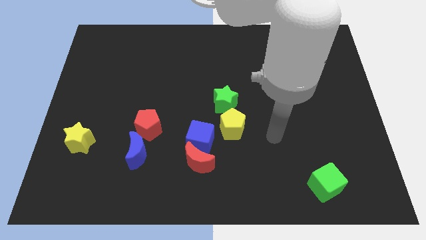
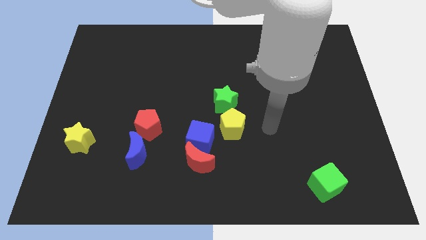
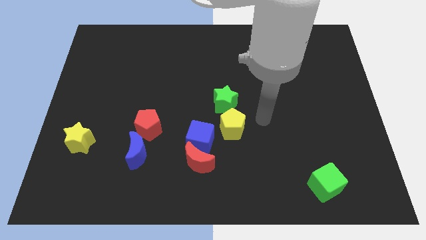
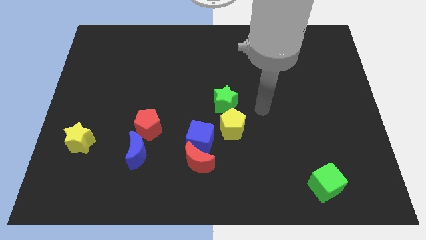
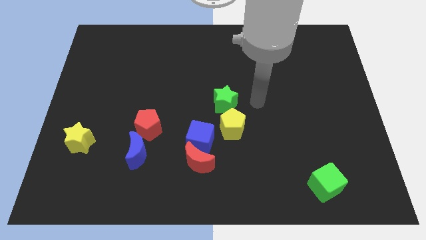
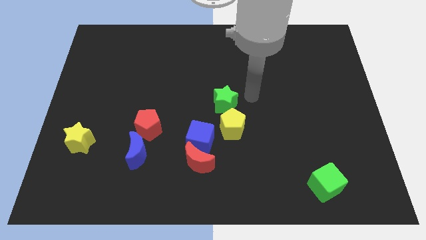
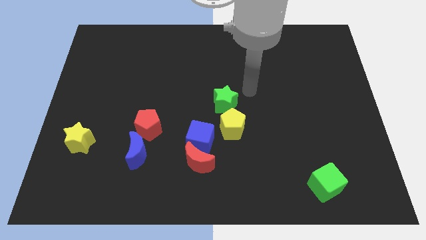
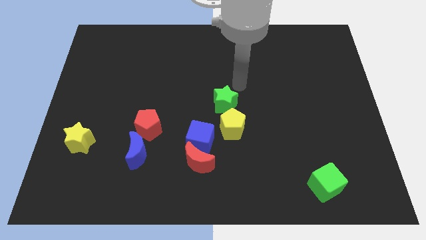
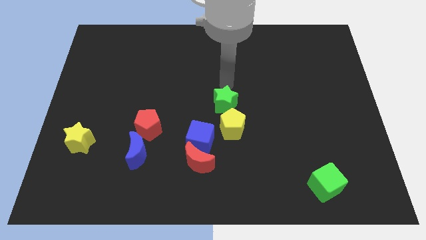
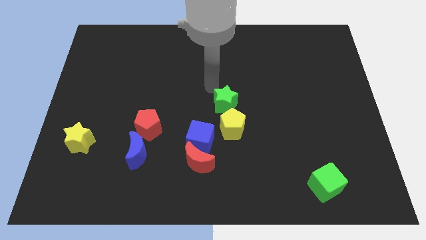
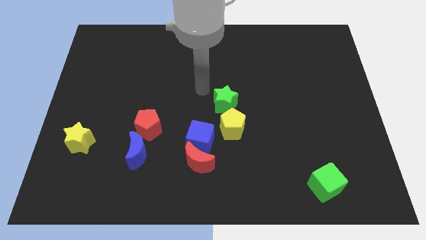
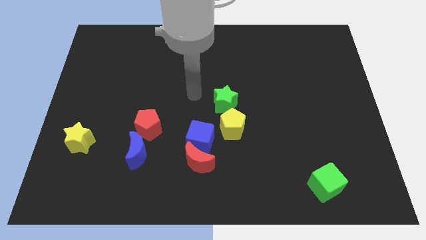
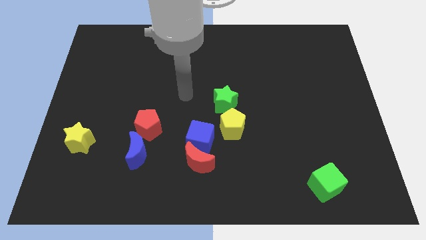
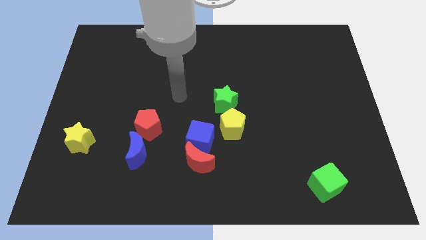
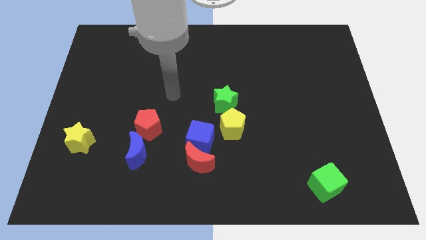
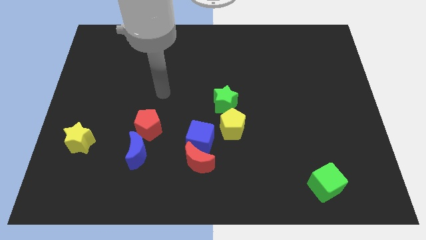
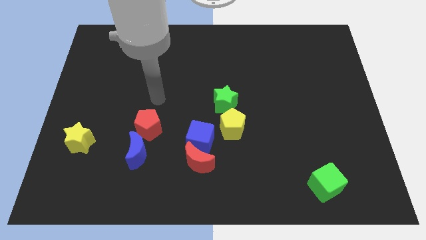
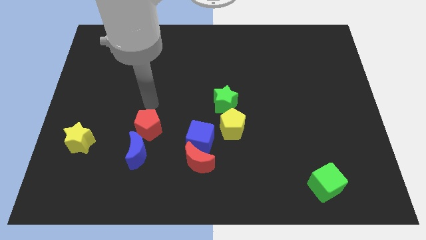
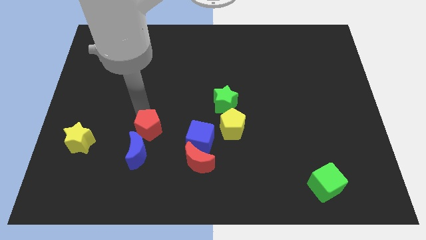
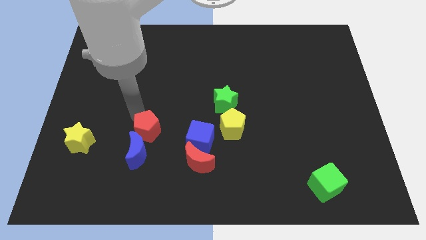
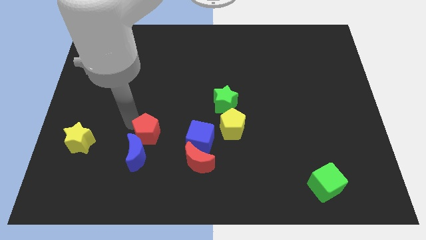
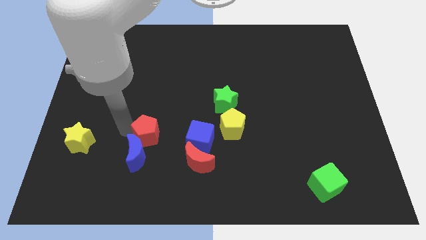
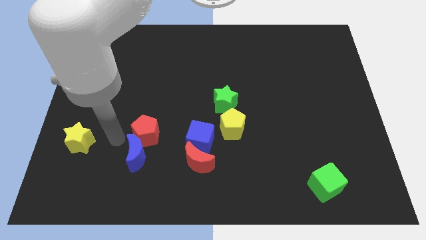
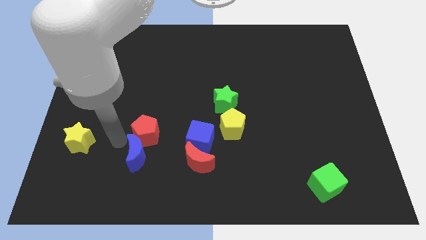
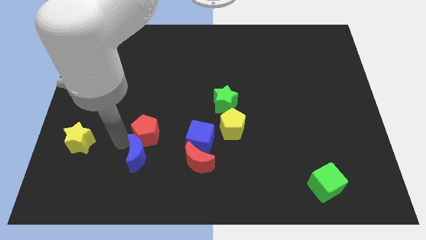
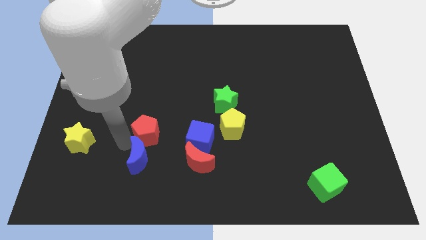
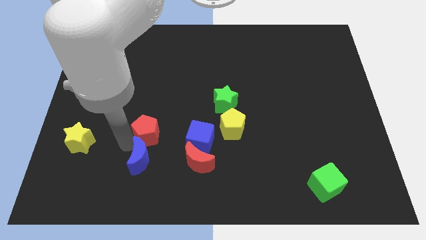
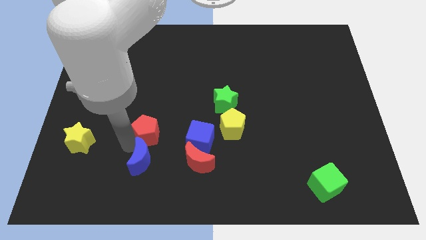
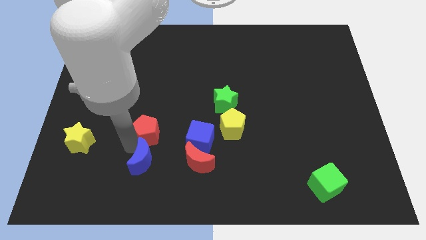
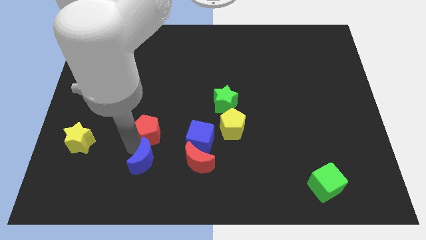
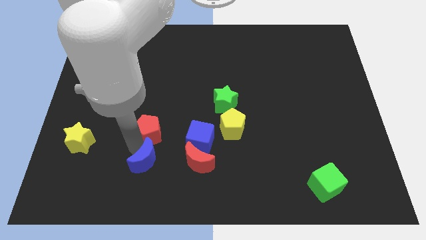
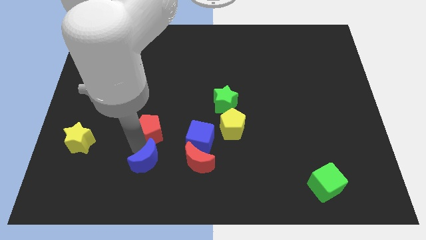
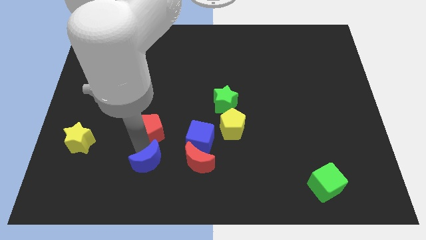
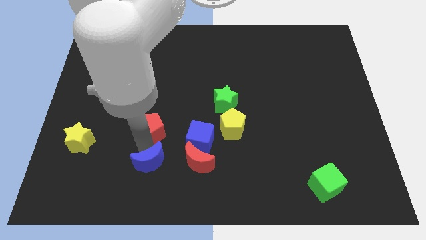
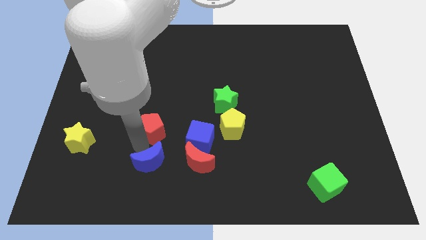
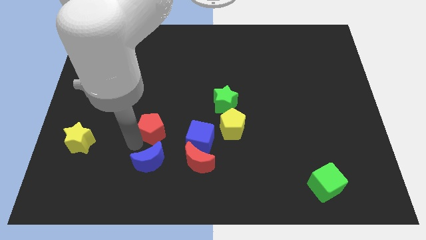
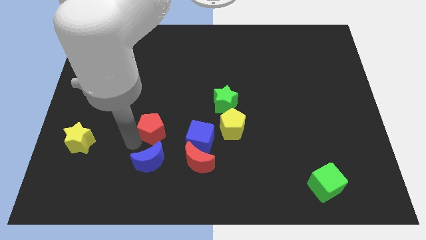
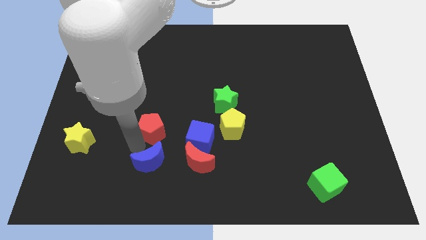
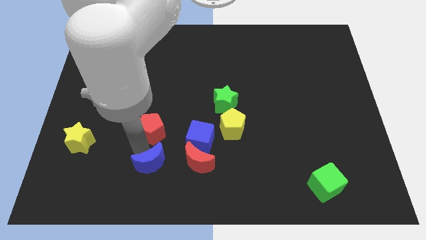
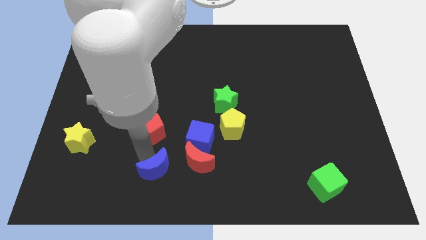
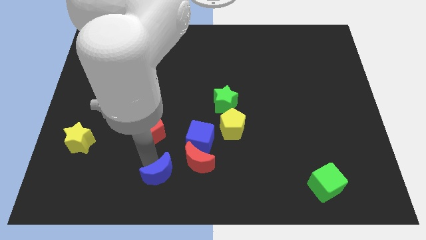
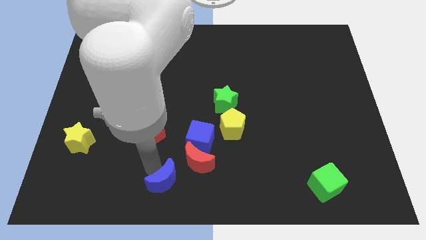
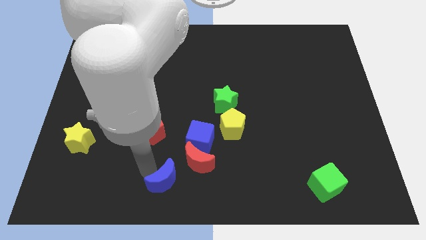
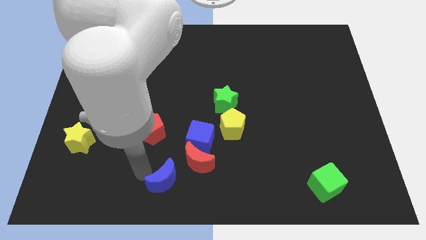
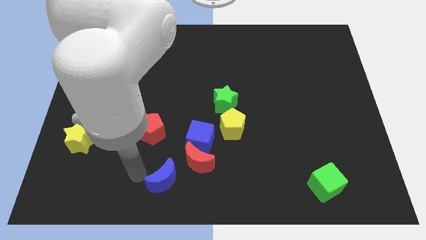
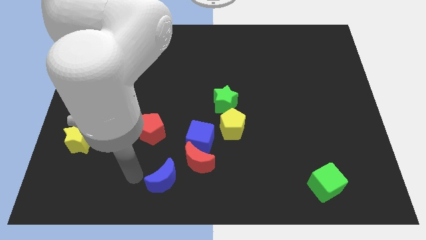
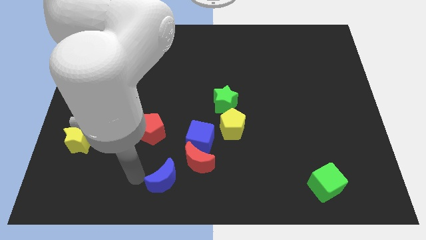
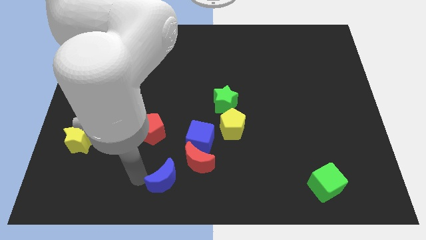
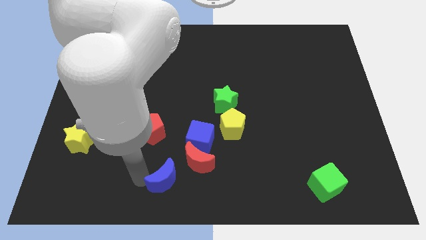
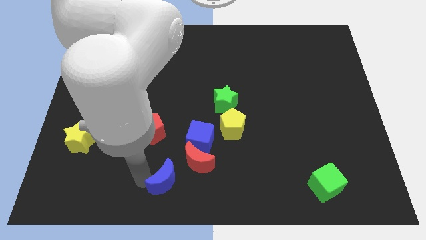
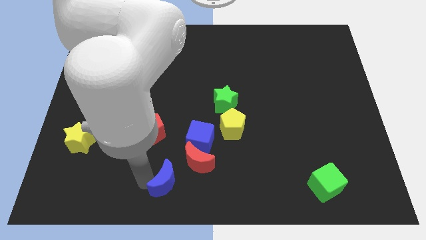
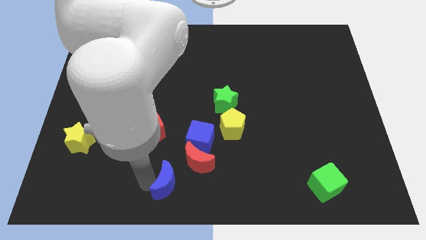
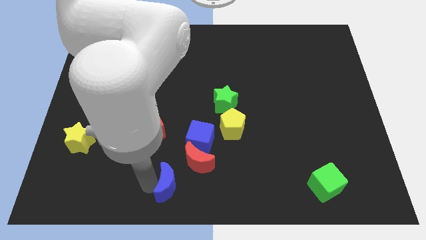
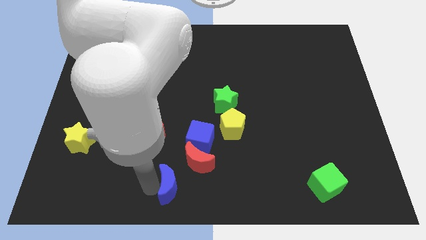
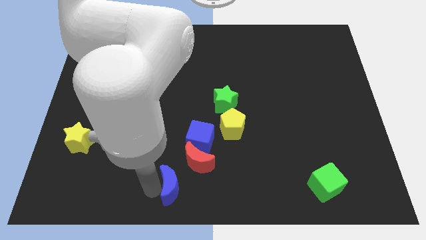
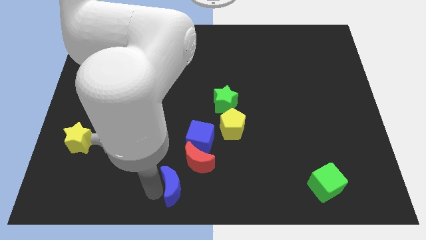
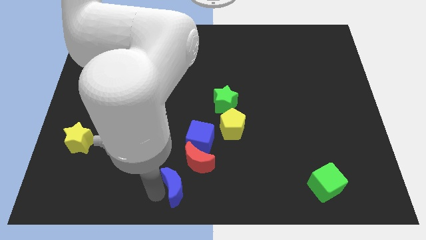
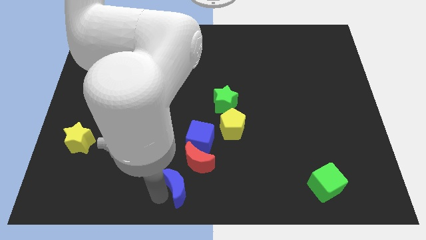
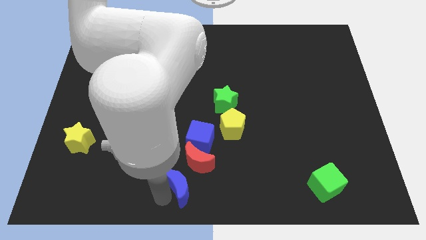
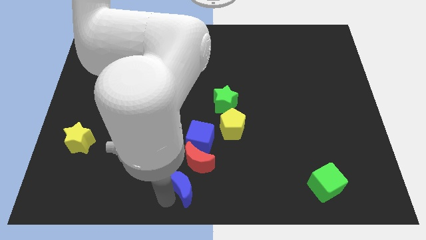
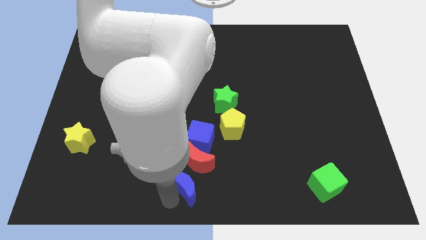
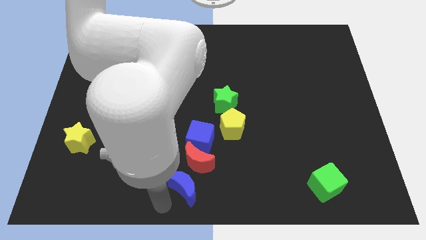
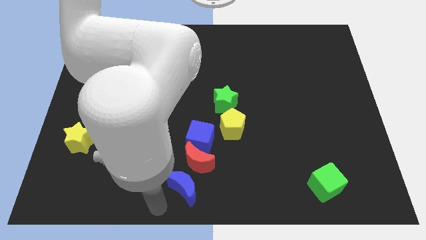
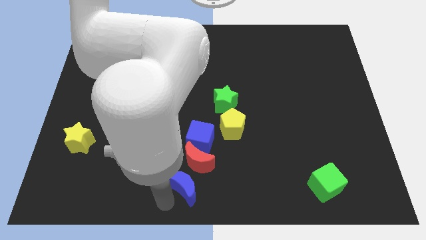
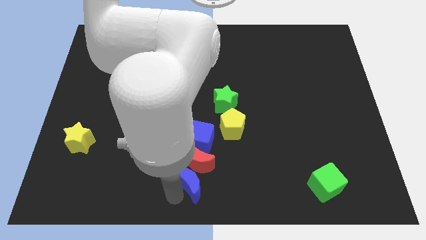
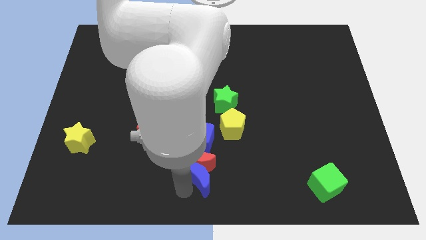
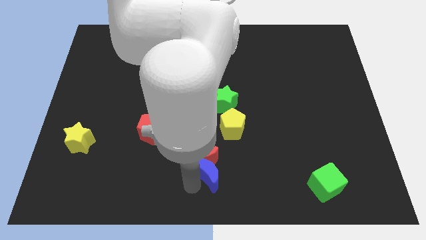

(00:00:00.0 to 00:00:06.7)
slide the blue moon to the bottom right of the blue cube

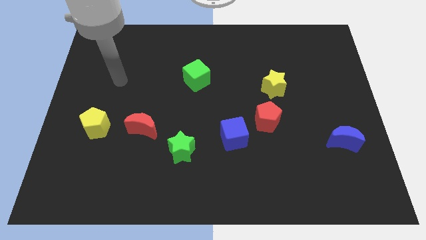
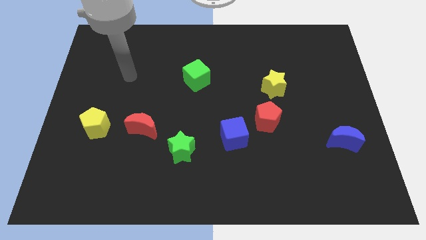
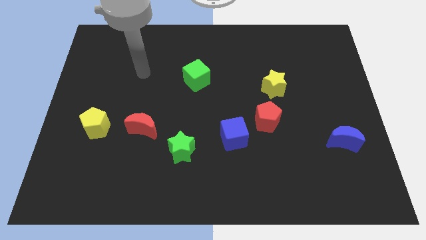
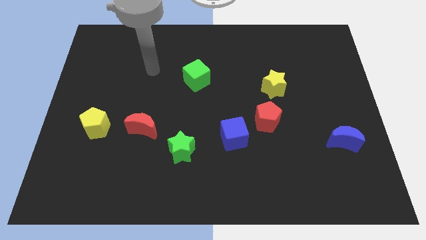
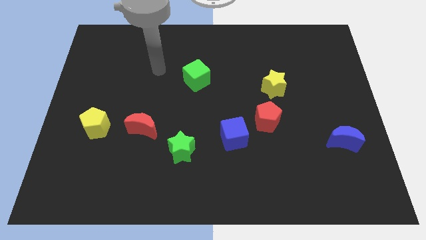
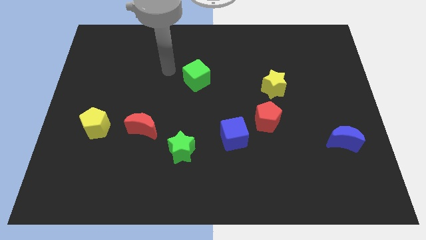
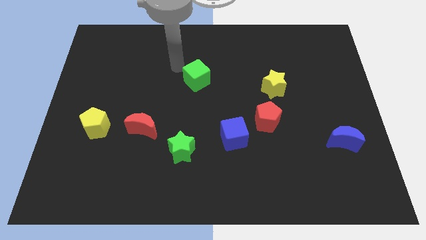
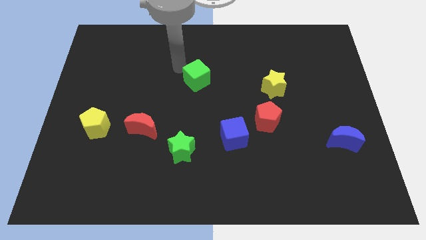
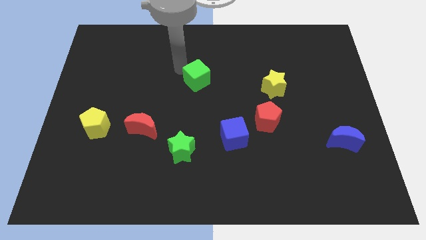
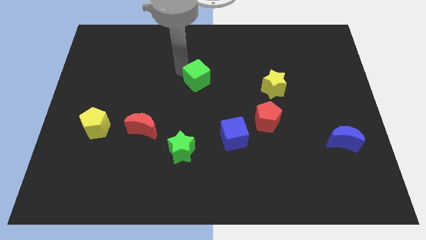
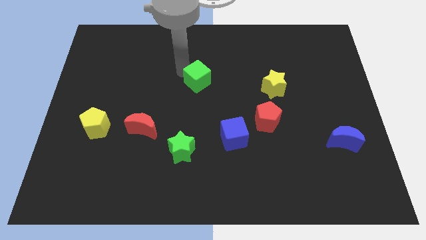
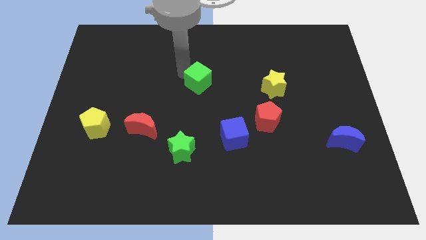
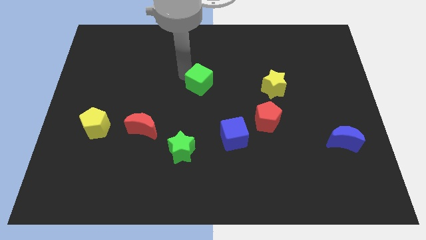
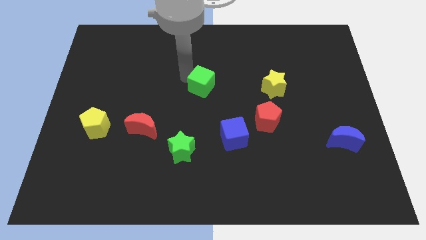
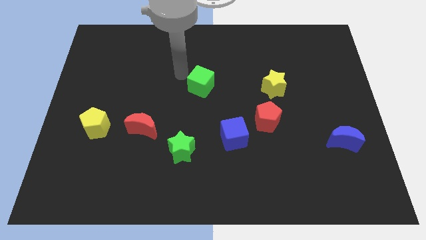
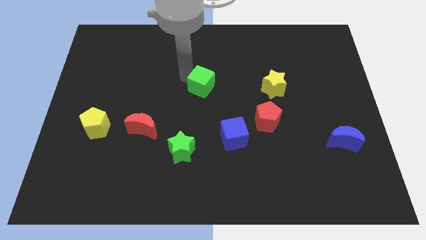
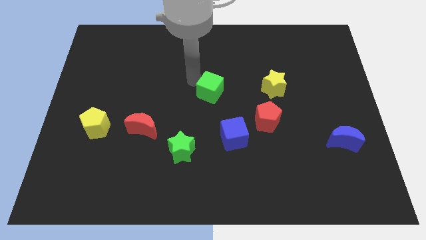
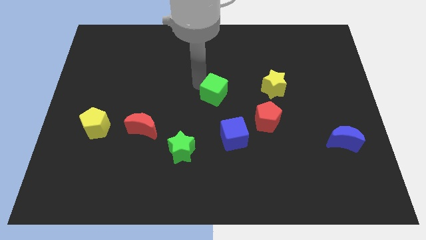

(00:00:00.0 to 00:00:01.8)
push the green cube to the top side of the blue cube
